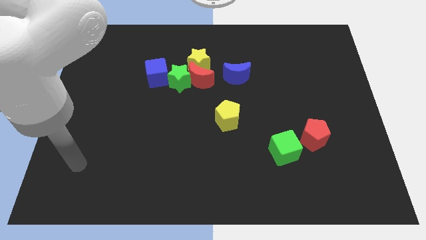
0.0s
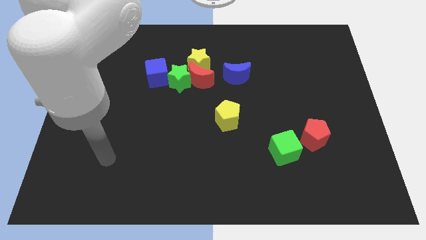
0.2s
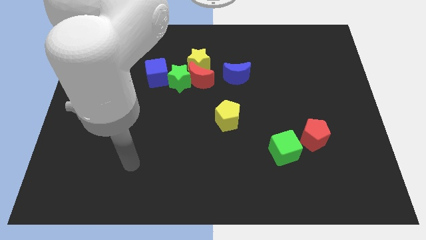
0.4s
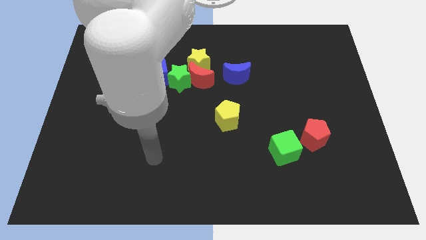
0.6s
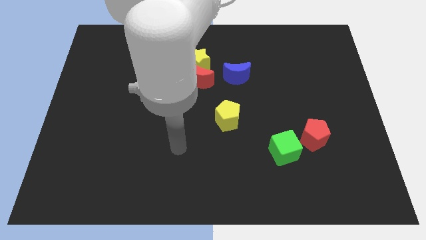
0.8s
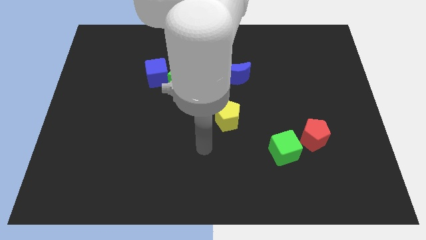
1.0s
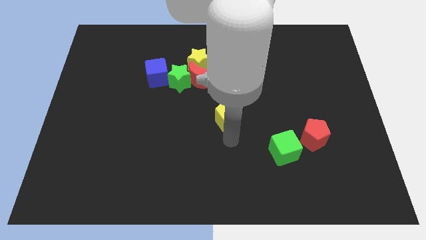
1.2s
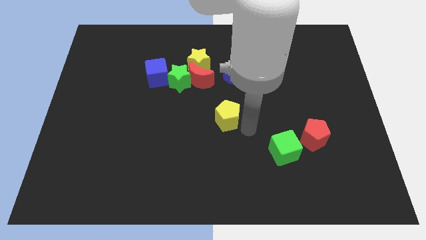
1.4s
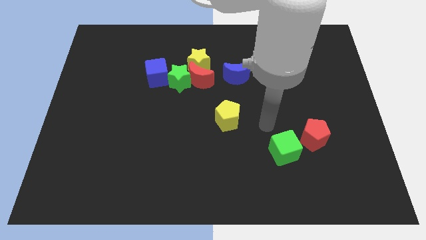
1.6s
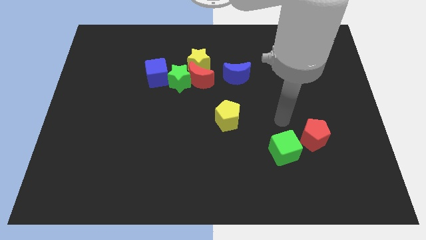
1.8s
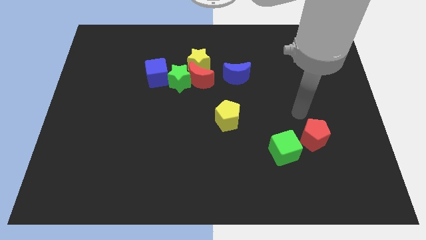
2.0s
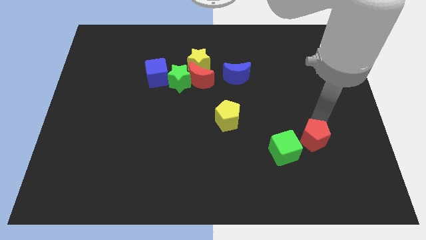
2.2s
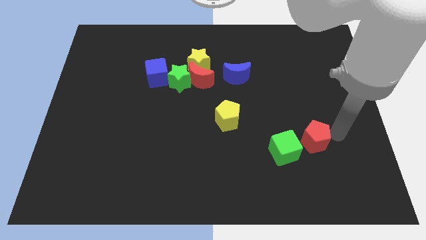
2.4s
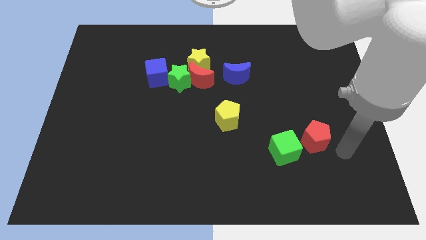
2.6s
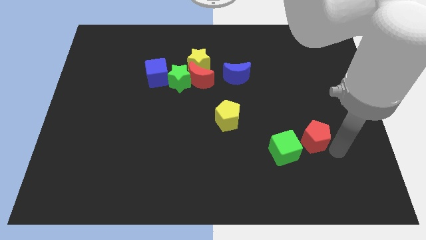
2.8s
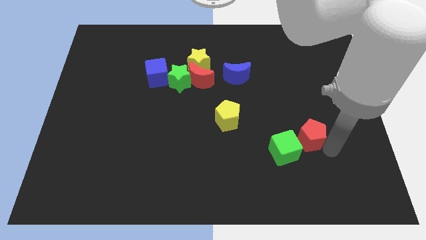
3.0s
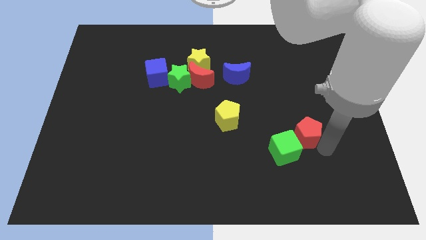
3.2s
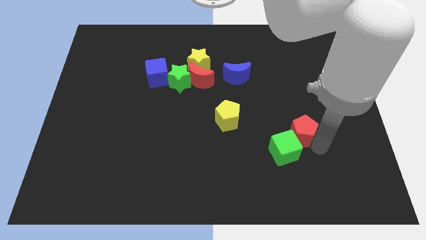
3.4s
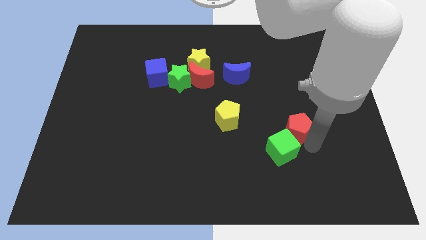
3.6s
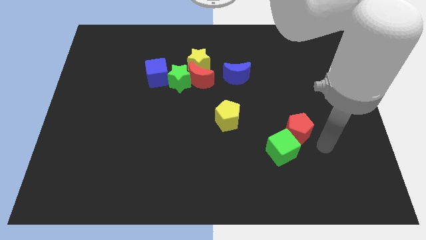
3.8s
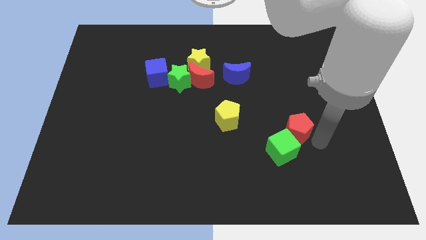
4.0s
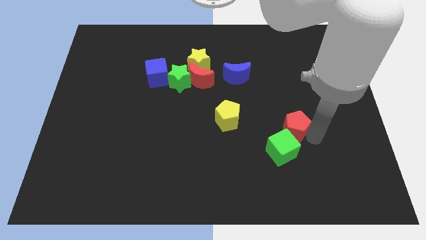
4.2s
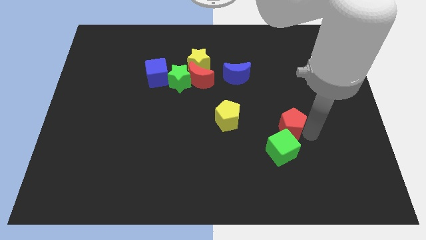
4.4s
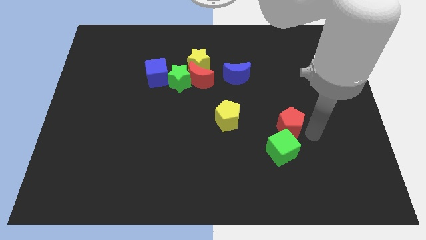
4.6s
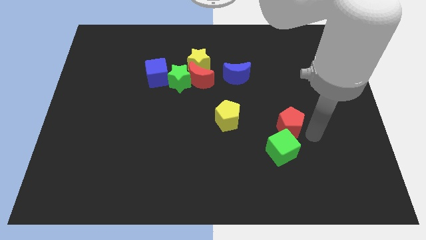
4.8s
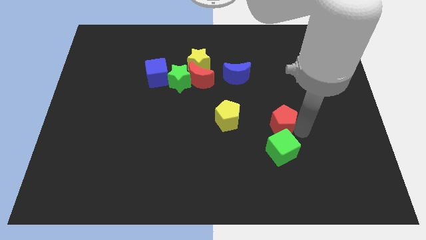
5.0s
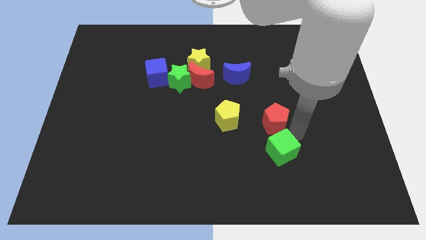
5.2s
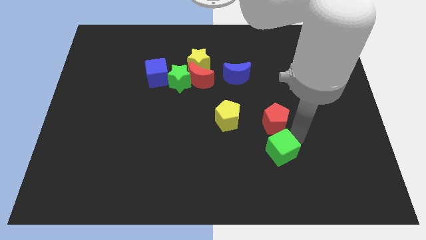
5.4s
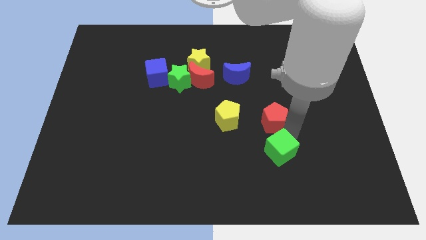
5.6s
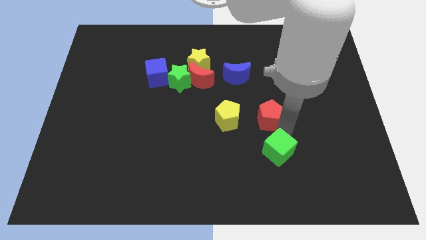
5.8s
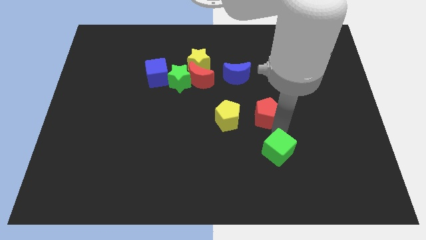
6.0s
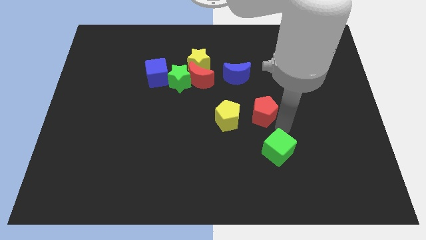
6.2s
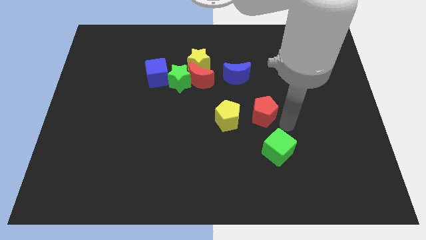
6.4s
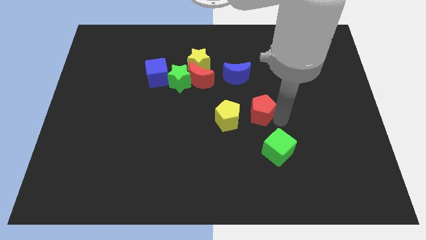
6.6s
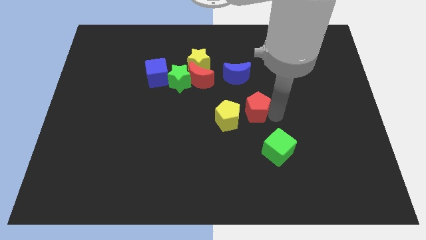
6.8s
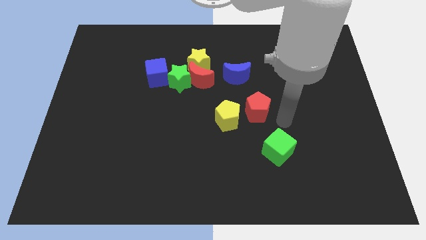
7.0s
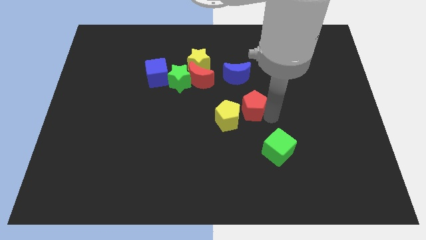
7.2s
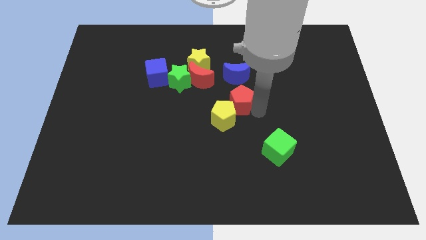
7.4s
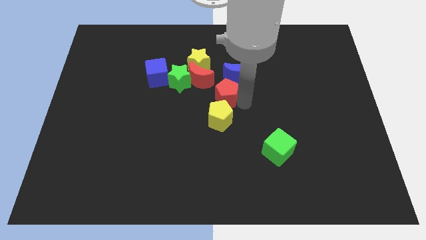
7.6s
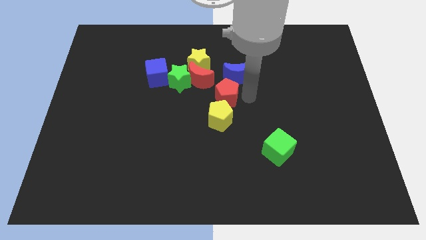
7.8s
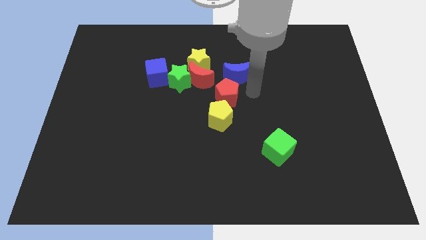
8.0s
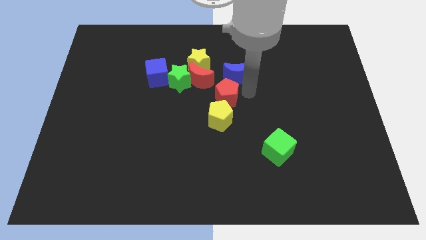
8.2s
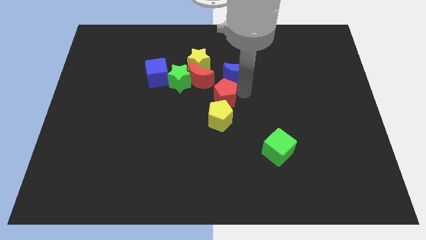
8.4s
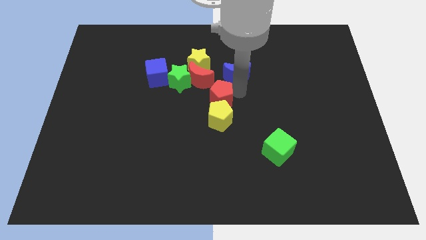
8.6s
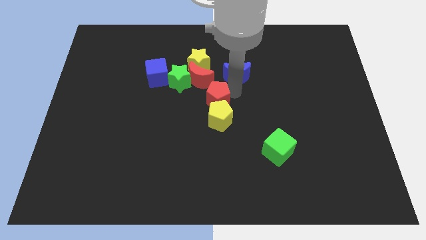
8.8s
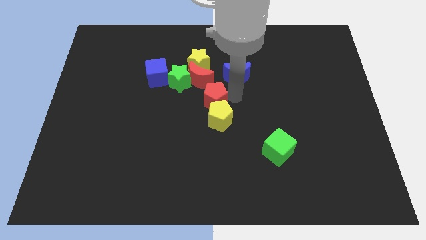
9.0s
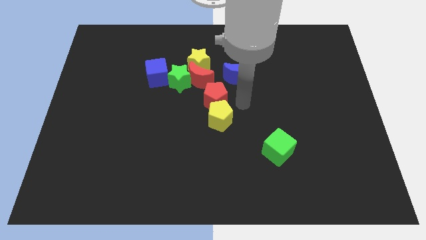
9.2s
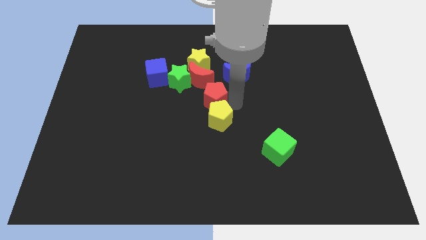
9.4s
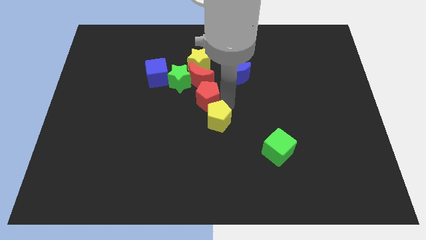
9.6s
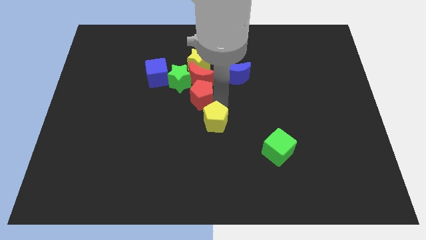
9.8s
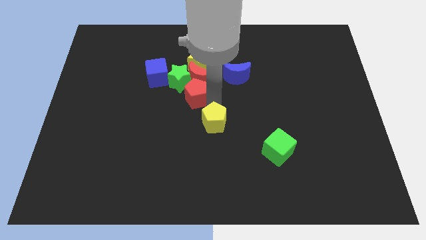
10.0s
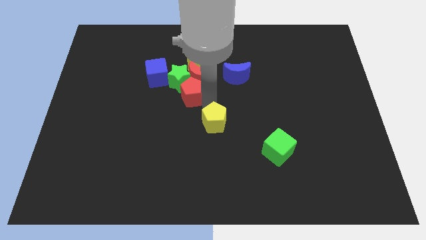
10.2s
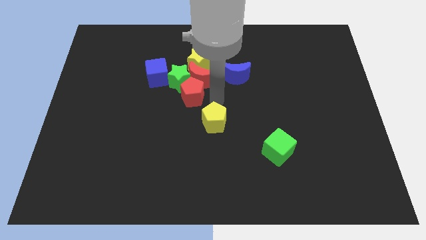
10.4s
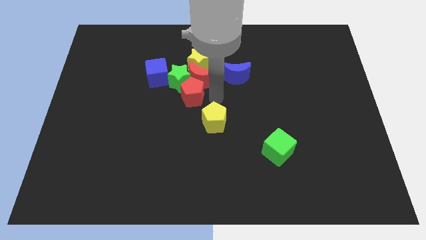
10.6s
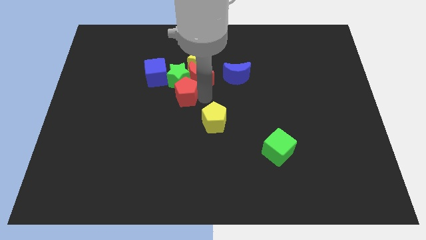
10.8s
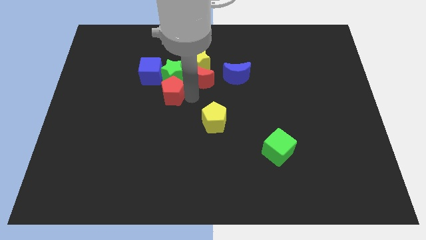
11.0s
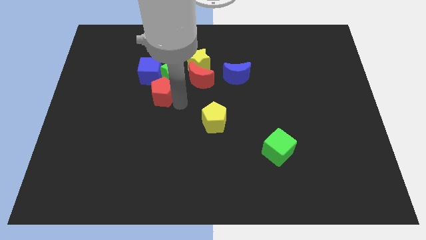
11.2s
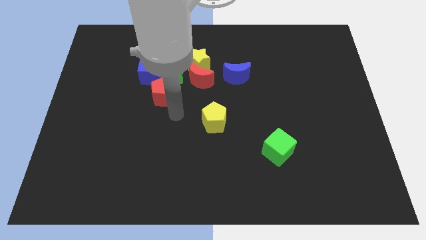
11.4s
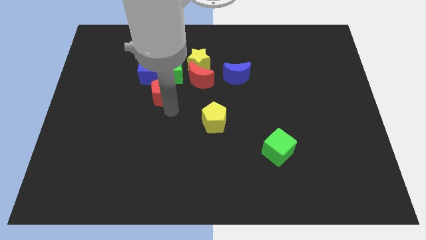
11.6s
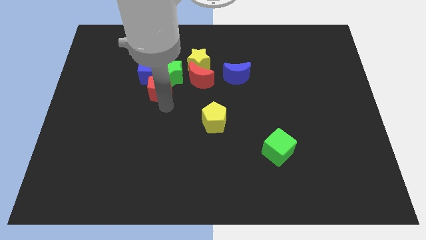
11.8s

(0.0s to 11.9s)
push the red pentagon to the blue cube

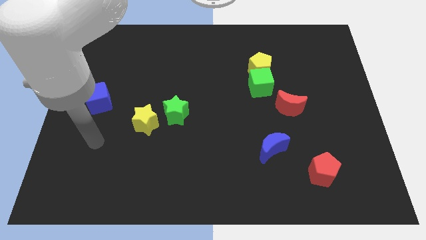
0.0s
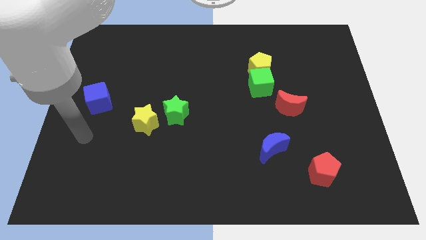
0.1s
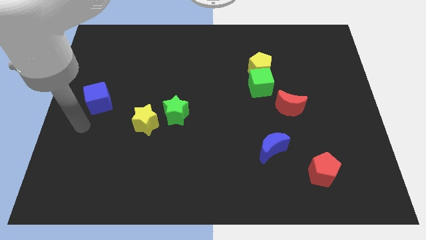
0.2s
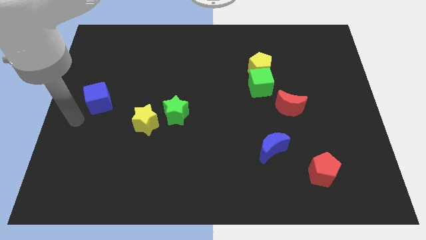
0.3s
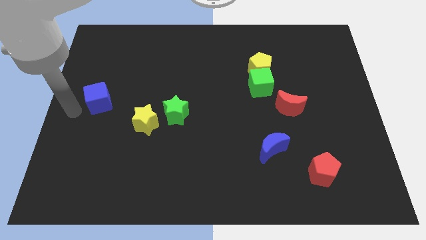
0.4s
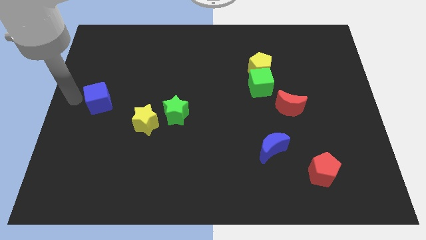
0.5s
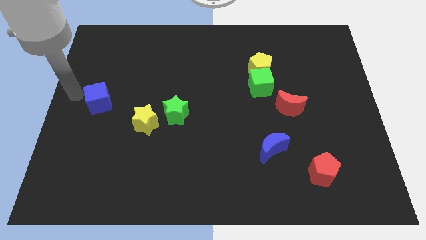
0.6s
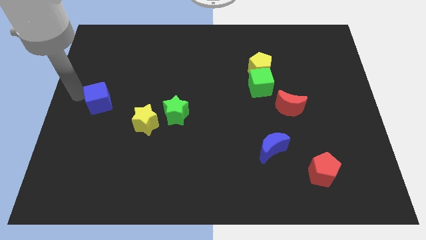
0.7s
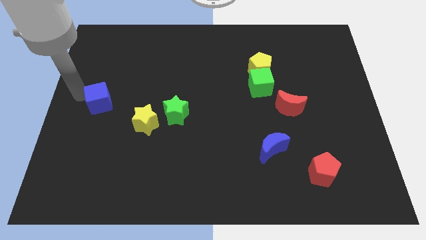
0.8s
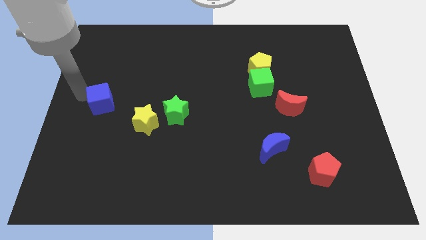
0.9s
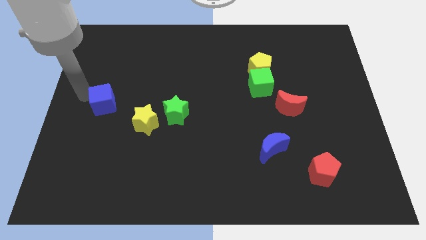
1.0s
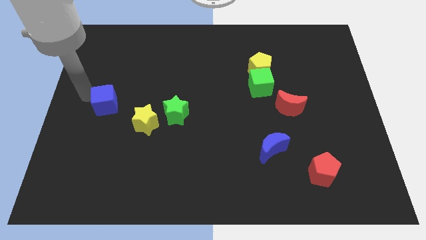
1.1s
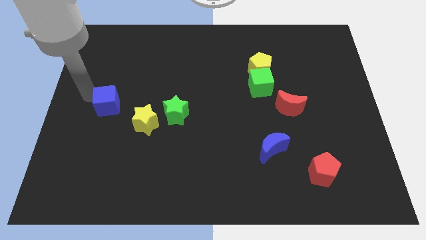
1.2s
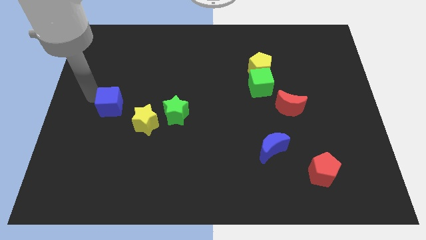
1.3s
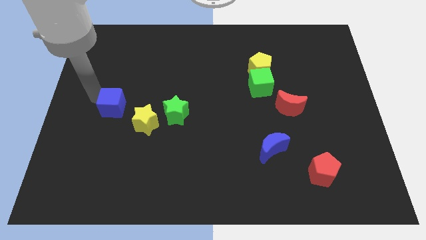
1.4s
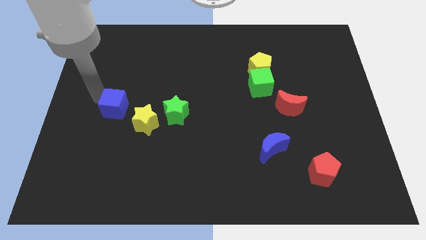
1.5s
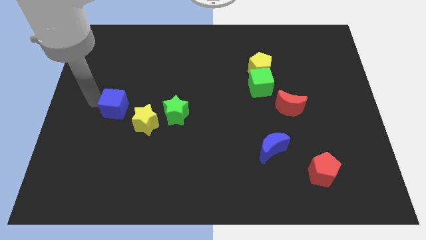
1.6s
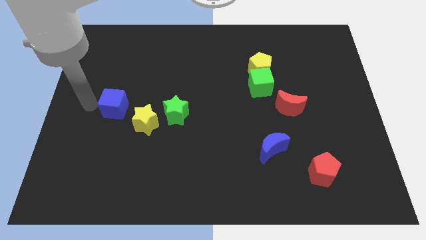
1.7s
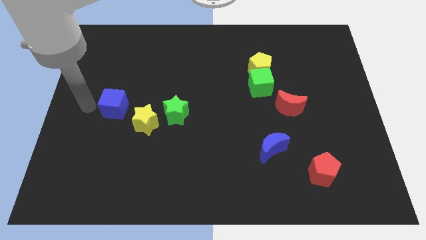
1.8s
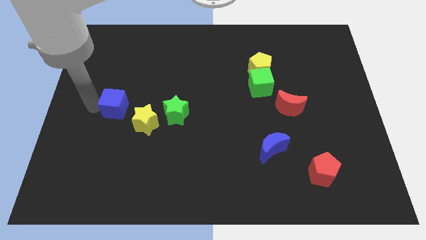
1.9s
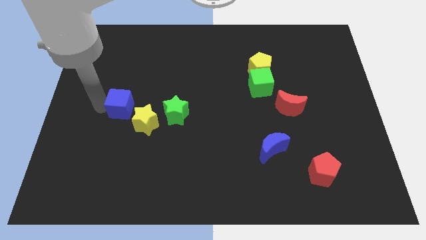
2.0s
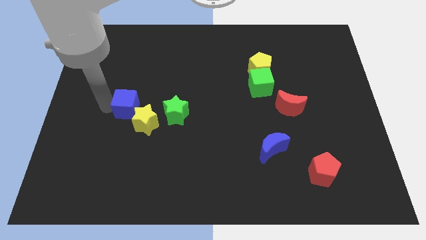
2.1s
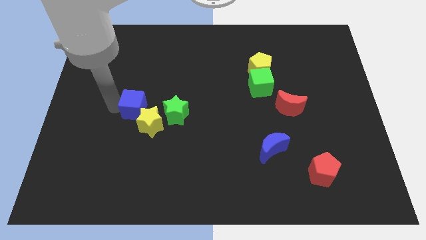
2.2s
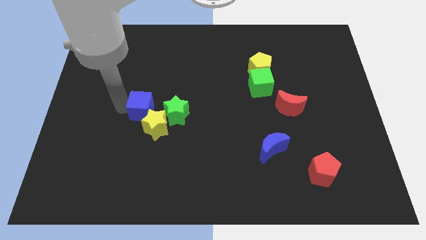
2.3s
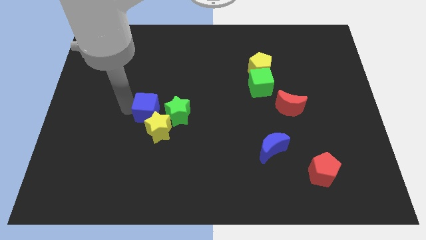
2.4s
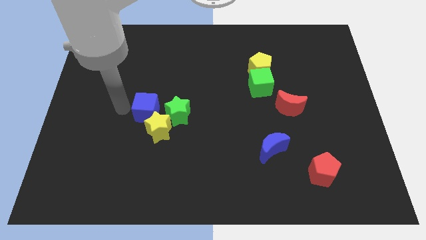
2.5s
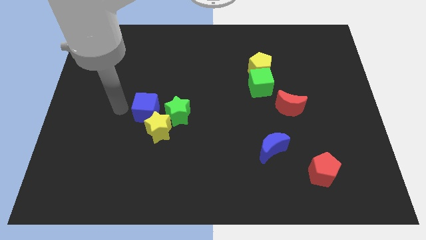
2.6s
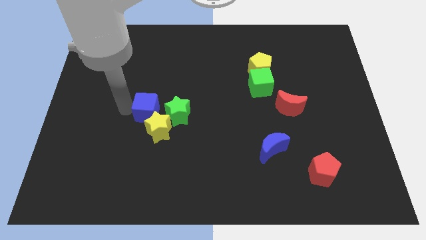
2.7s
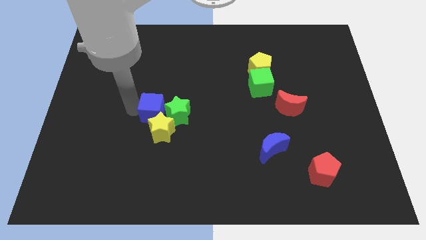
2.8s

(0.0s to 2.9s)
put the blue cube close to the green star
